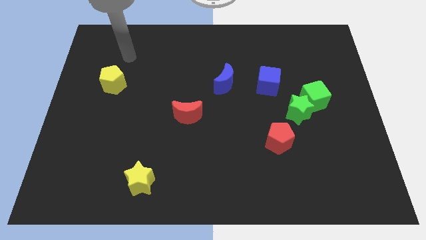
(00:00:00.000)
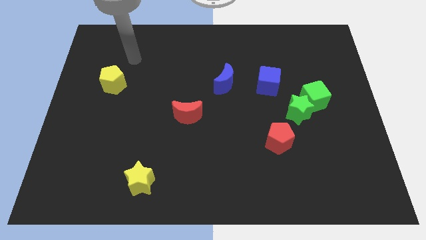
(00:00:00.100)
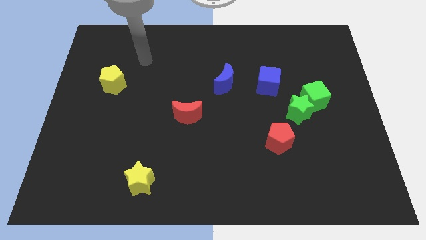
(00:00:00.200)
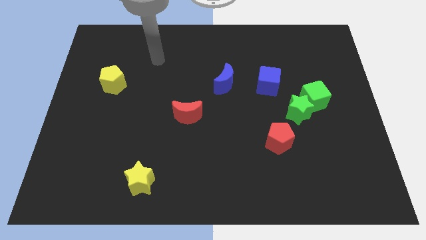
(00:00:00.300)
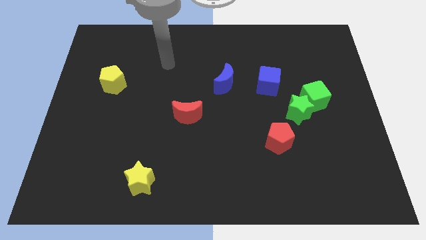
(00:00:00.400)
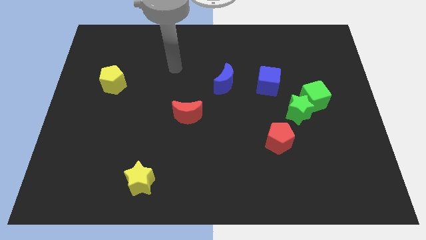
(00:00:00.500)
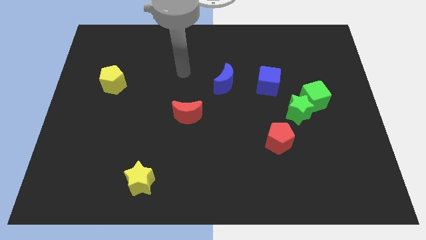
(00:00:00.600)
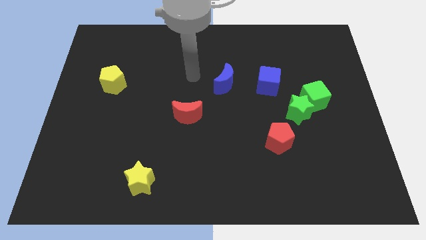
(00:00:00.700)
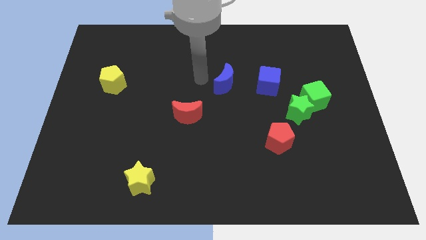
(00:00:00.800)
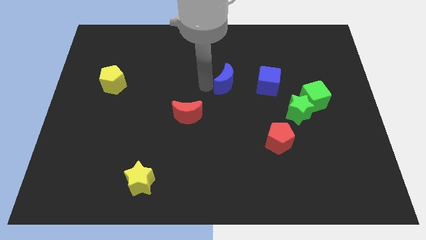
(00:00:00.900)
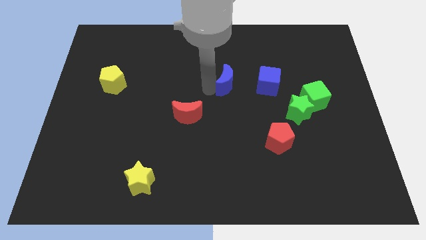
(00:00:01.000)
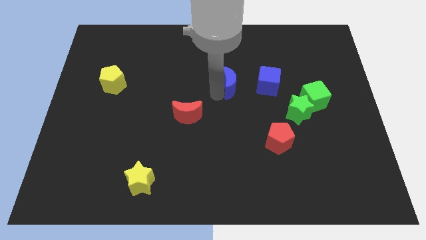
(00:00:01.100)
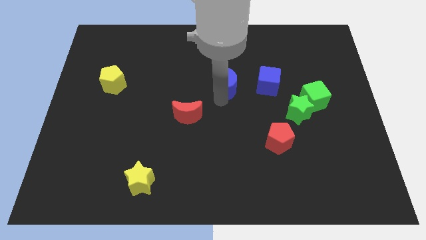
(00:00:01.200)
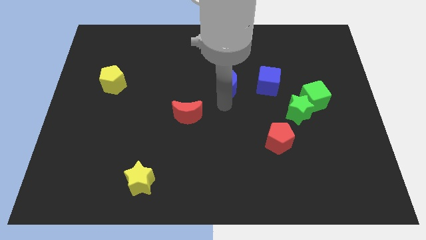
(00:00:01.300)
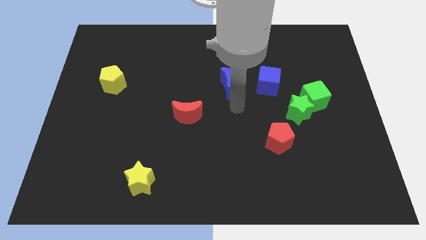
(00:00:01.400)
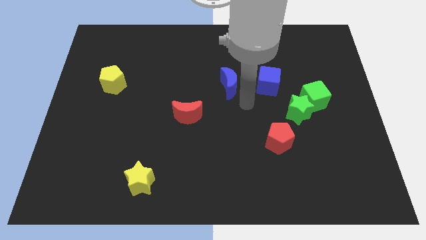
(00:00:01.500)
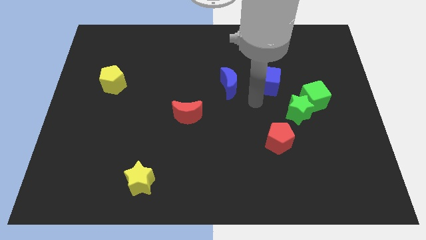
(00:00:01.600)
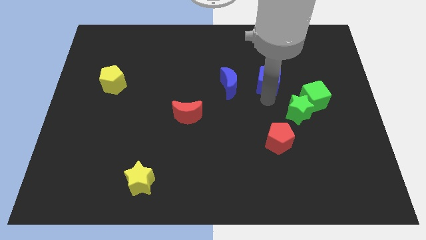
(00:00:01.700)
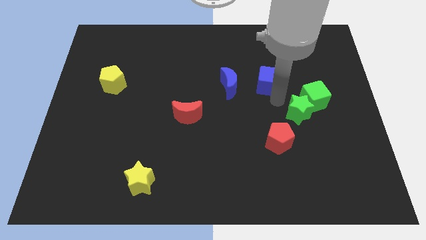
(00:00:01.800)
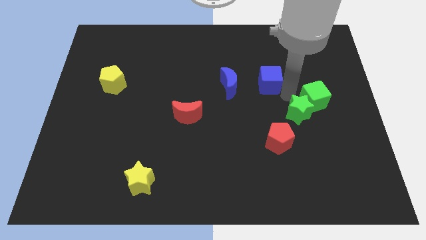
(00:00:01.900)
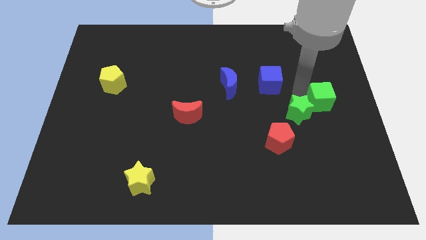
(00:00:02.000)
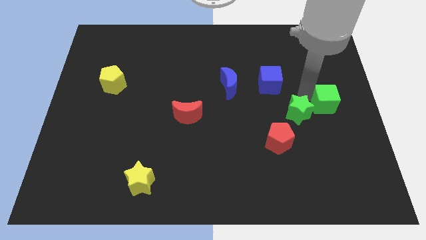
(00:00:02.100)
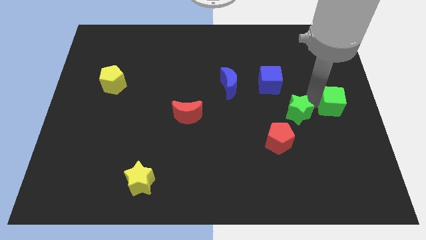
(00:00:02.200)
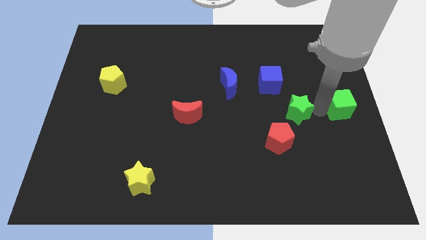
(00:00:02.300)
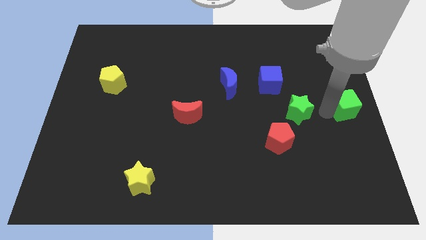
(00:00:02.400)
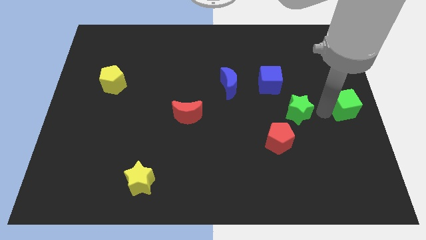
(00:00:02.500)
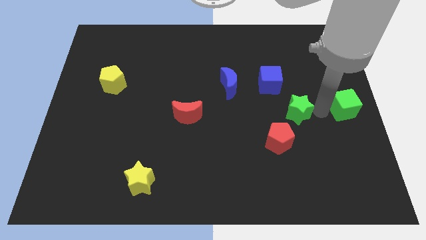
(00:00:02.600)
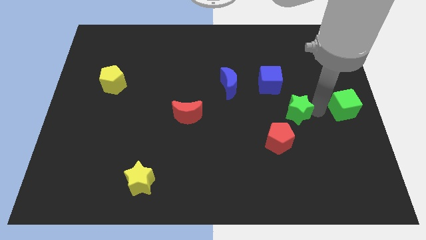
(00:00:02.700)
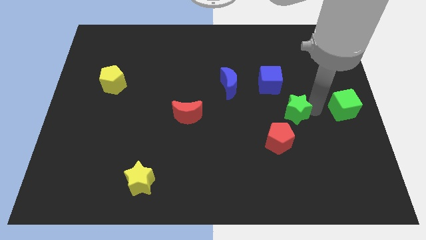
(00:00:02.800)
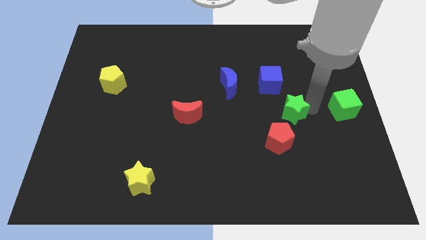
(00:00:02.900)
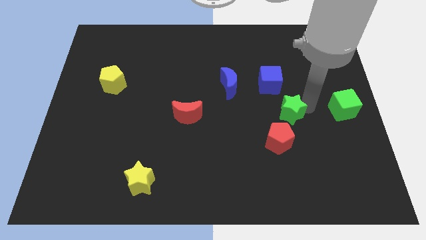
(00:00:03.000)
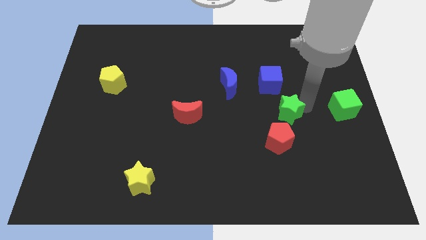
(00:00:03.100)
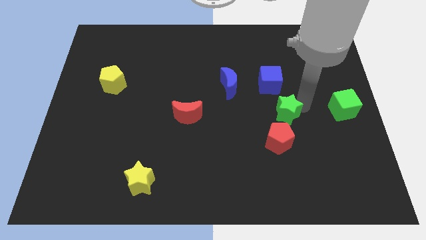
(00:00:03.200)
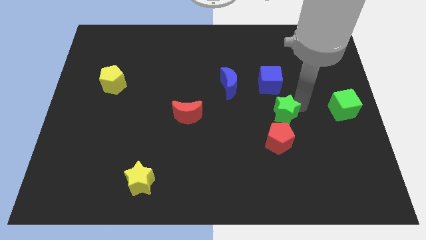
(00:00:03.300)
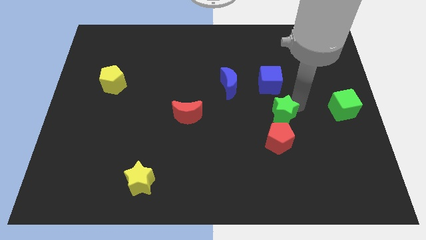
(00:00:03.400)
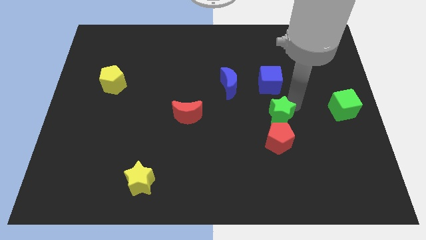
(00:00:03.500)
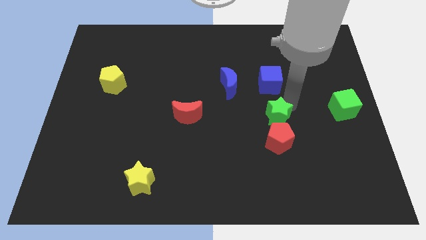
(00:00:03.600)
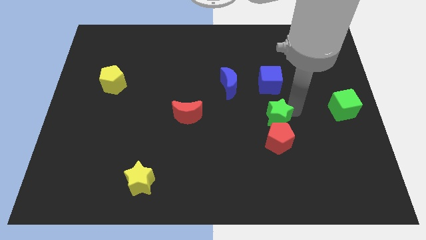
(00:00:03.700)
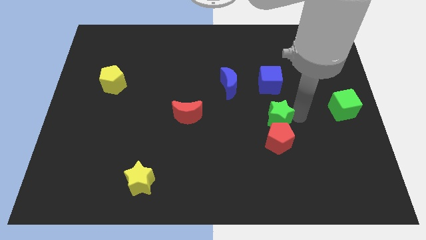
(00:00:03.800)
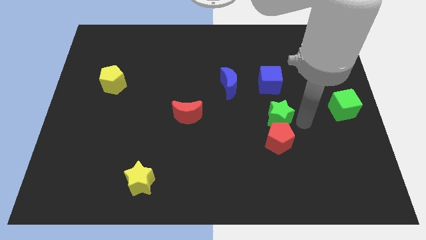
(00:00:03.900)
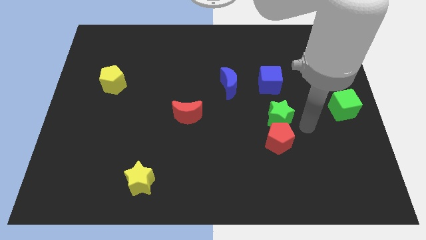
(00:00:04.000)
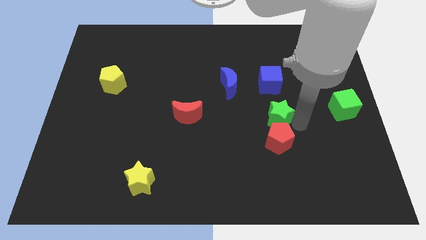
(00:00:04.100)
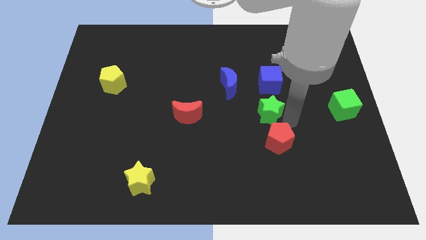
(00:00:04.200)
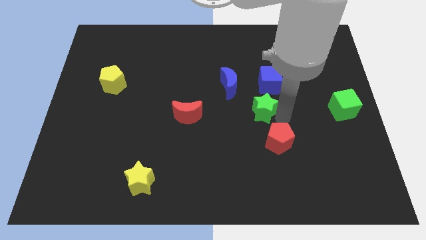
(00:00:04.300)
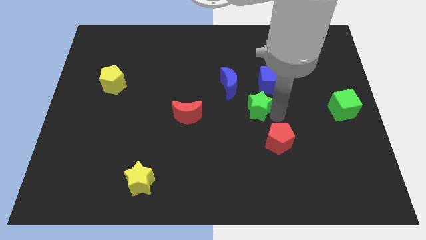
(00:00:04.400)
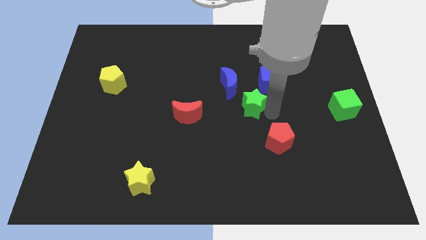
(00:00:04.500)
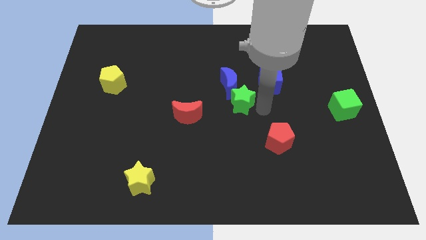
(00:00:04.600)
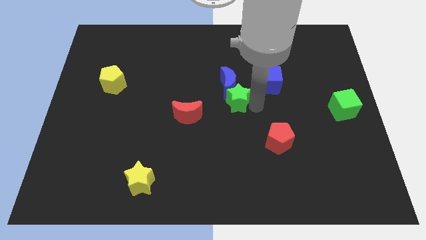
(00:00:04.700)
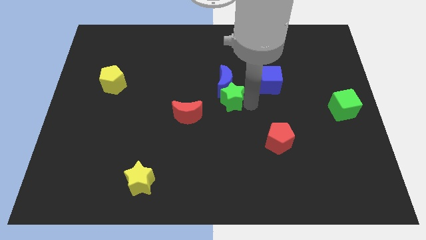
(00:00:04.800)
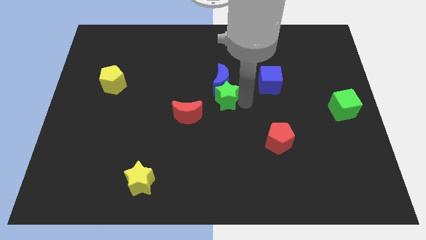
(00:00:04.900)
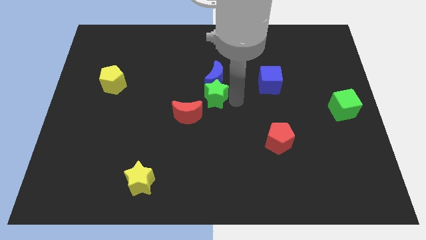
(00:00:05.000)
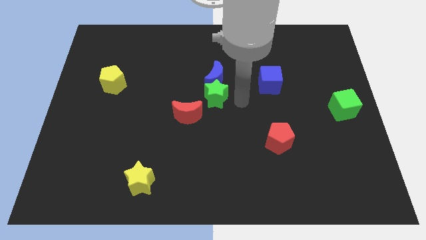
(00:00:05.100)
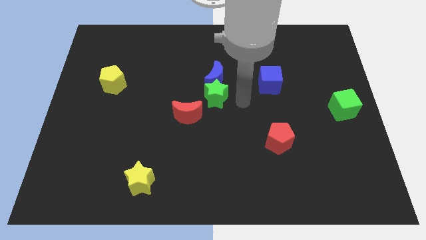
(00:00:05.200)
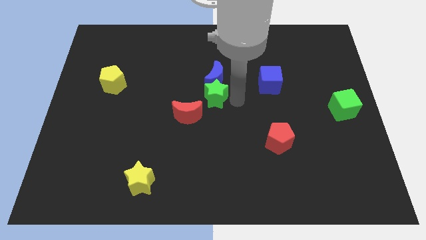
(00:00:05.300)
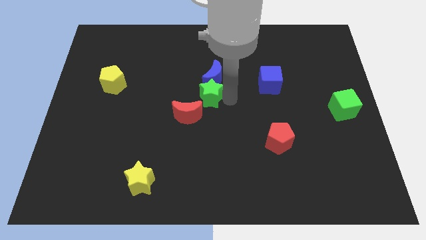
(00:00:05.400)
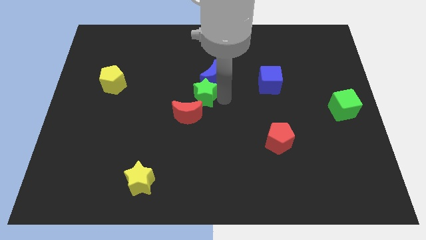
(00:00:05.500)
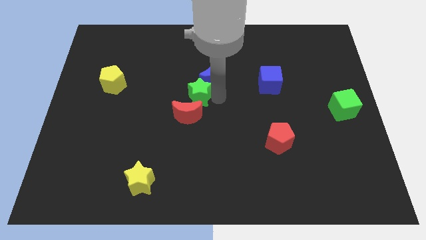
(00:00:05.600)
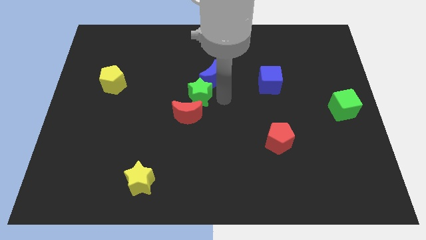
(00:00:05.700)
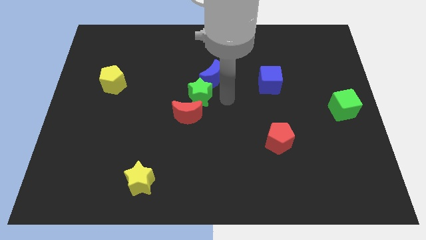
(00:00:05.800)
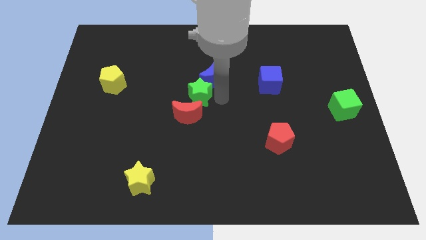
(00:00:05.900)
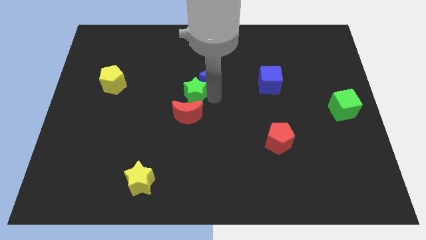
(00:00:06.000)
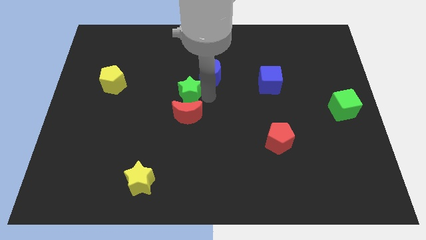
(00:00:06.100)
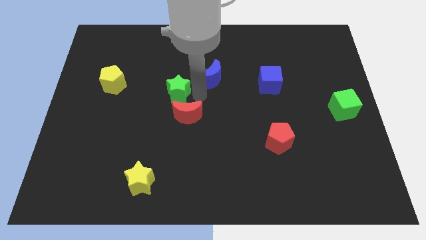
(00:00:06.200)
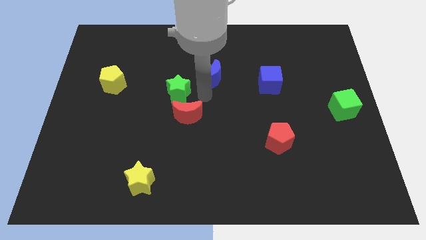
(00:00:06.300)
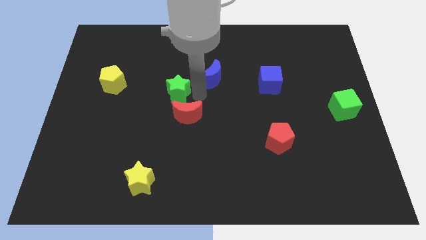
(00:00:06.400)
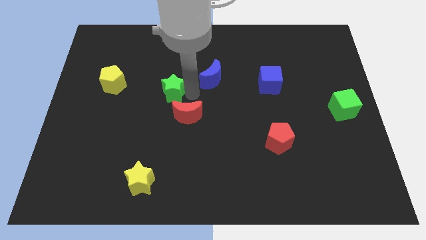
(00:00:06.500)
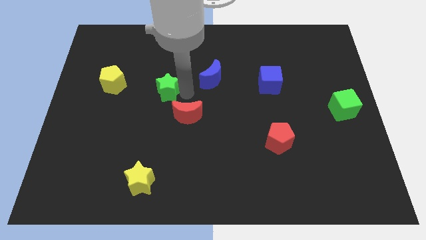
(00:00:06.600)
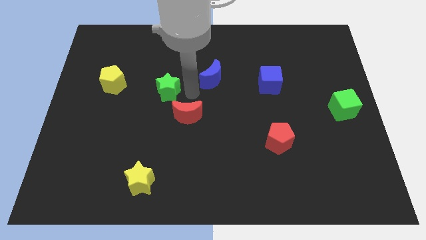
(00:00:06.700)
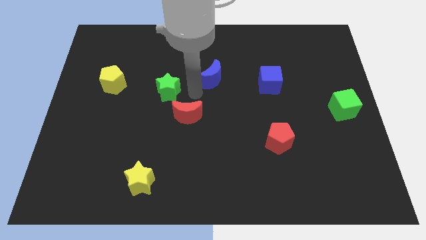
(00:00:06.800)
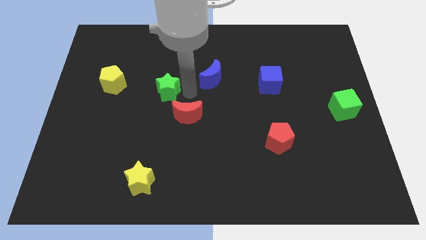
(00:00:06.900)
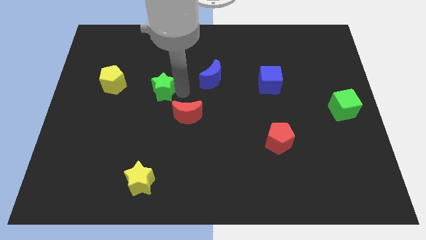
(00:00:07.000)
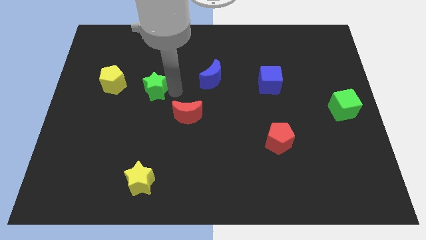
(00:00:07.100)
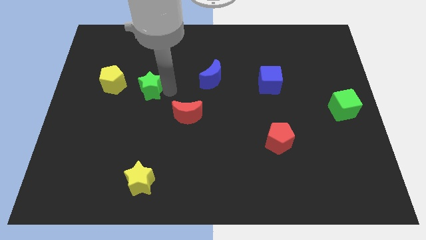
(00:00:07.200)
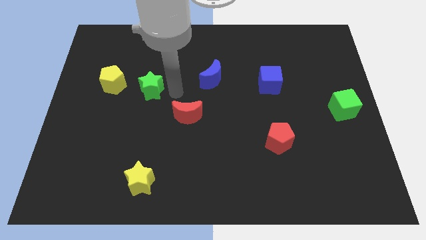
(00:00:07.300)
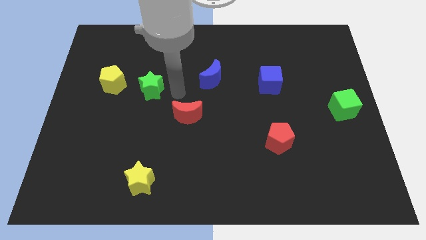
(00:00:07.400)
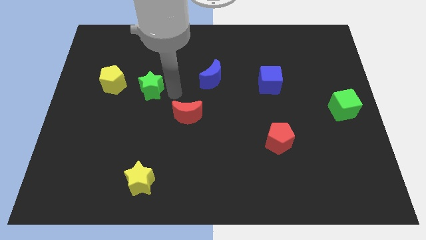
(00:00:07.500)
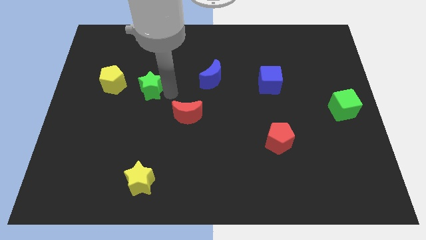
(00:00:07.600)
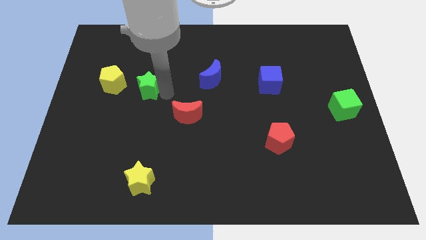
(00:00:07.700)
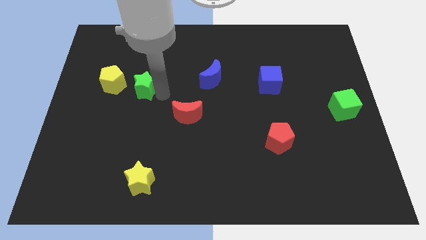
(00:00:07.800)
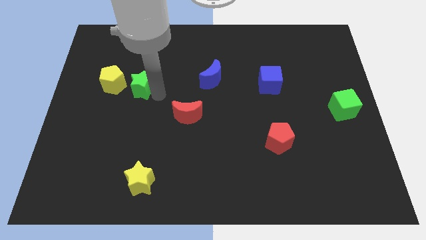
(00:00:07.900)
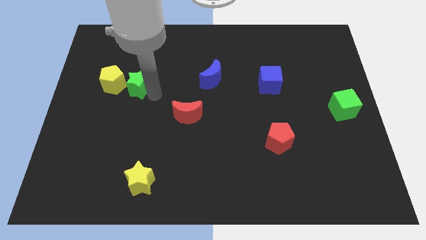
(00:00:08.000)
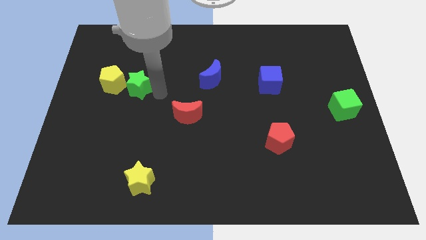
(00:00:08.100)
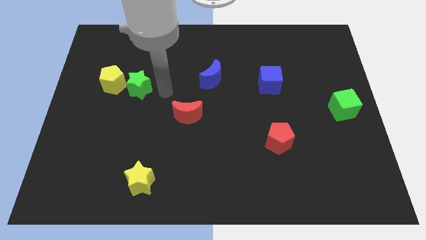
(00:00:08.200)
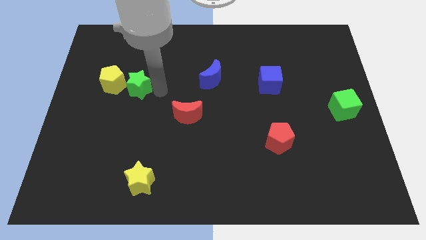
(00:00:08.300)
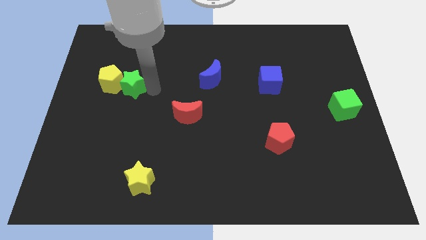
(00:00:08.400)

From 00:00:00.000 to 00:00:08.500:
put the green star close to the yellow pentagon
